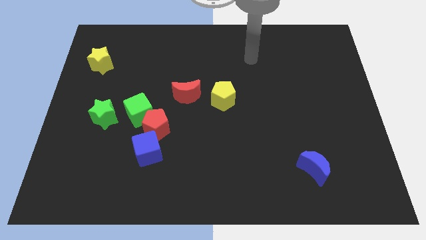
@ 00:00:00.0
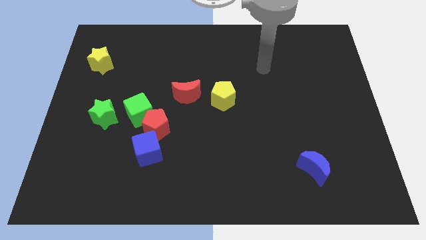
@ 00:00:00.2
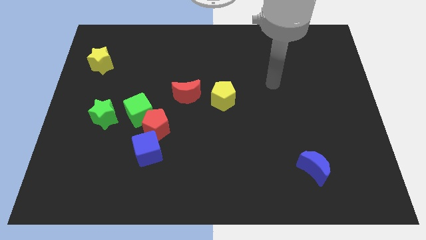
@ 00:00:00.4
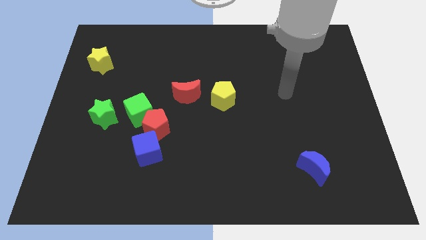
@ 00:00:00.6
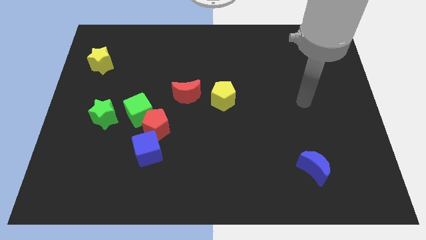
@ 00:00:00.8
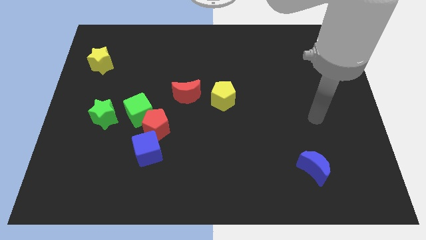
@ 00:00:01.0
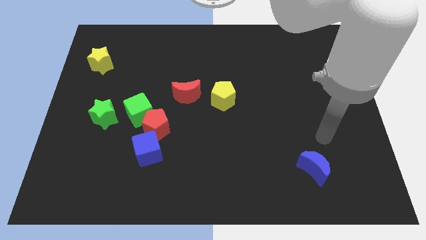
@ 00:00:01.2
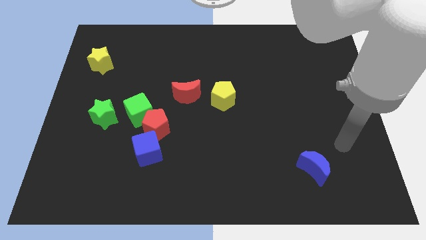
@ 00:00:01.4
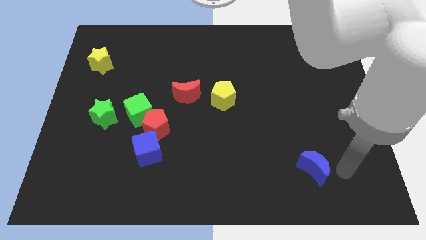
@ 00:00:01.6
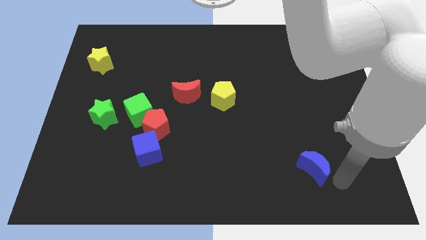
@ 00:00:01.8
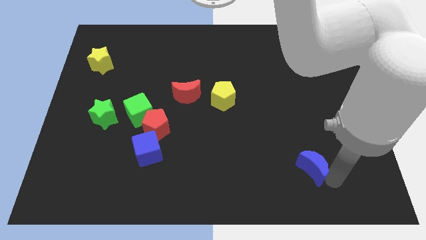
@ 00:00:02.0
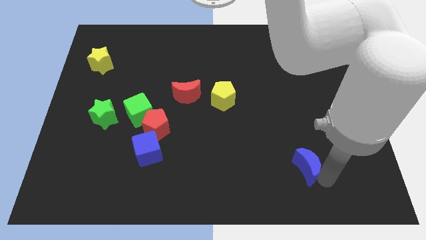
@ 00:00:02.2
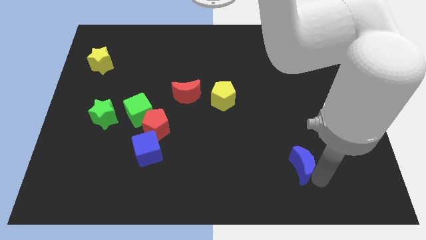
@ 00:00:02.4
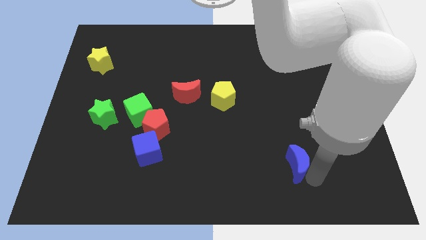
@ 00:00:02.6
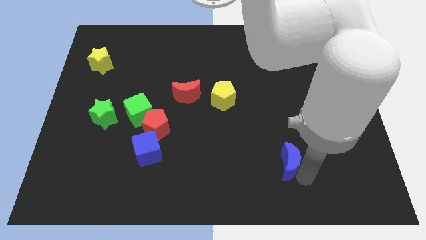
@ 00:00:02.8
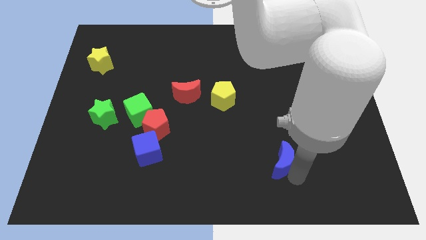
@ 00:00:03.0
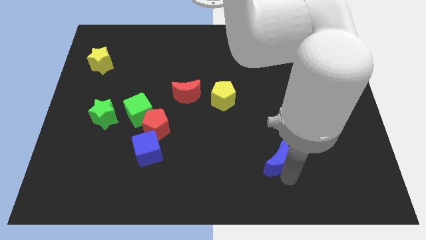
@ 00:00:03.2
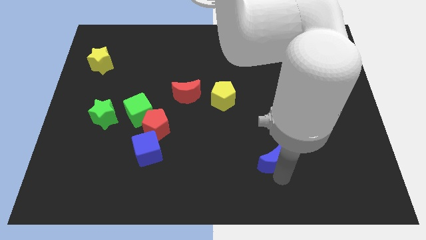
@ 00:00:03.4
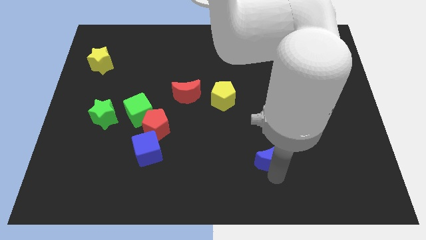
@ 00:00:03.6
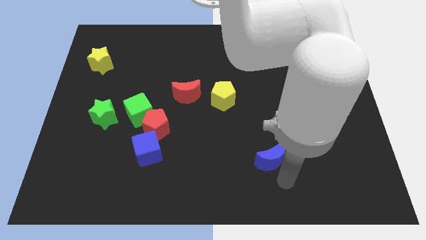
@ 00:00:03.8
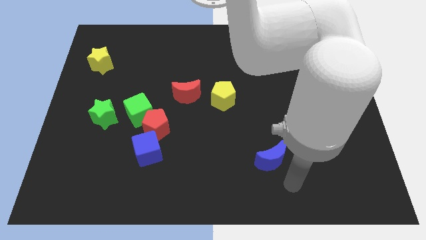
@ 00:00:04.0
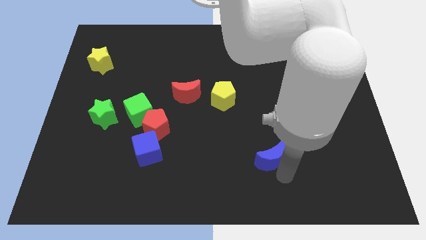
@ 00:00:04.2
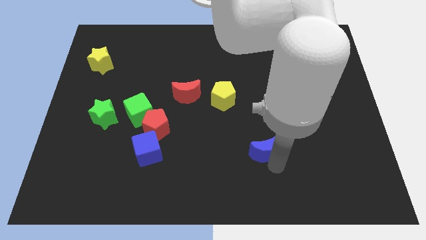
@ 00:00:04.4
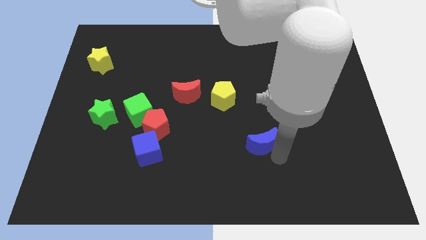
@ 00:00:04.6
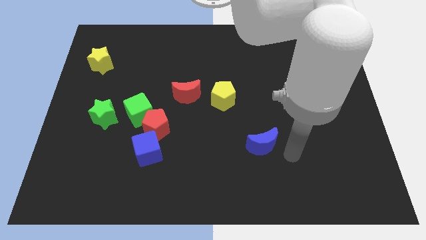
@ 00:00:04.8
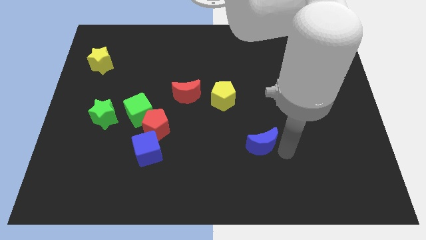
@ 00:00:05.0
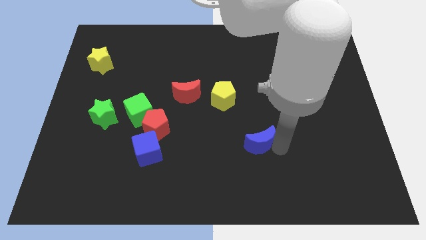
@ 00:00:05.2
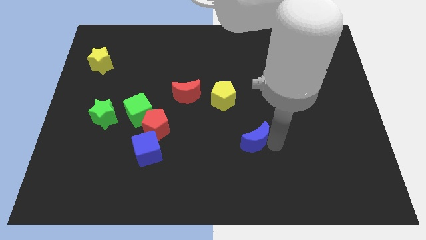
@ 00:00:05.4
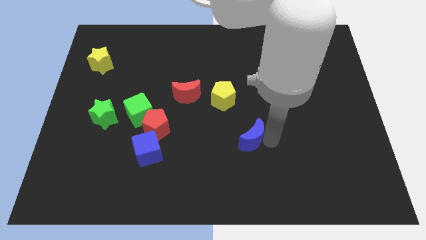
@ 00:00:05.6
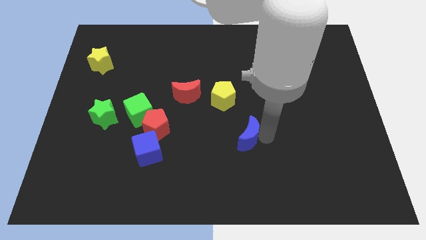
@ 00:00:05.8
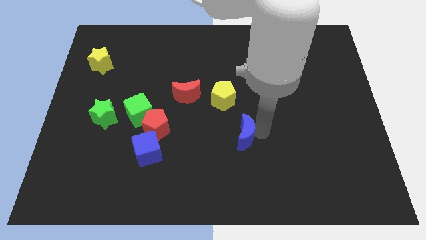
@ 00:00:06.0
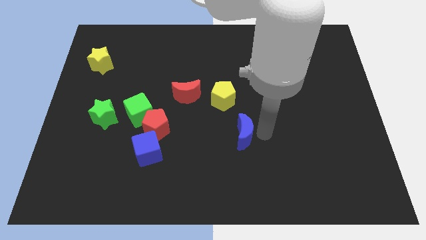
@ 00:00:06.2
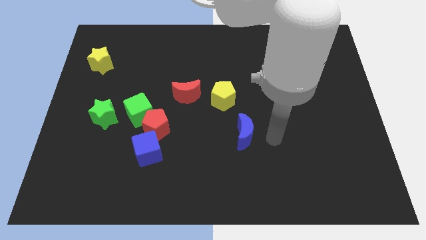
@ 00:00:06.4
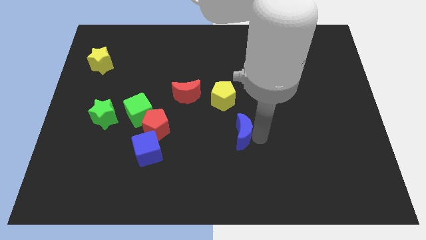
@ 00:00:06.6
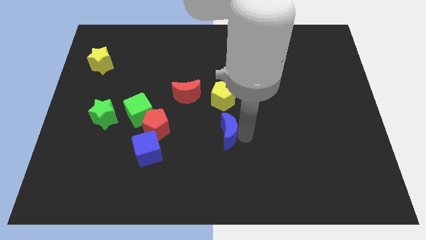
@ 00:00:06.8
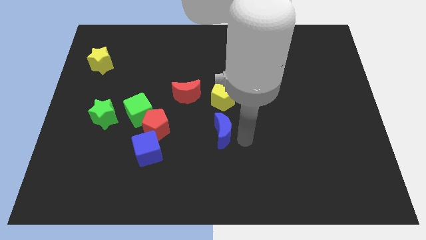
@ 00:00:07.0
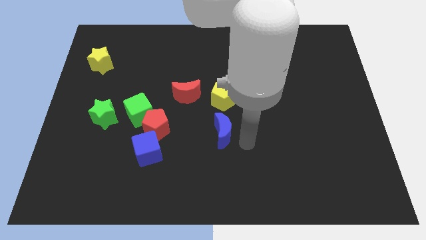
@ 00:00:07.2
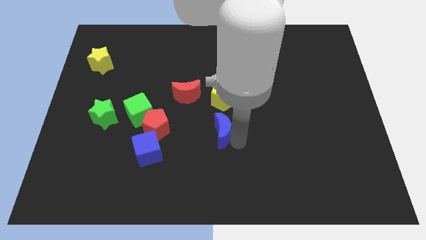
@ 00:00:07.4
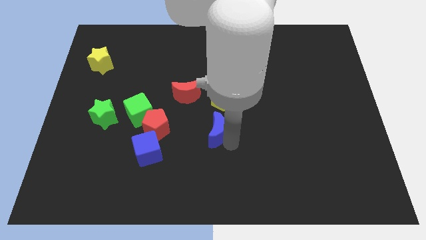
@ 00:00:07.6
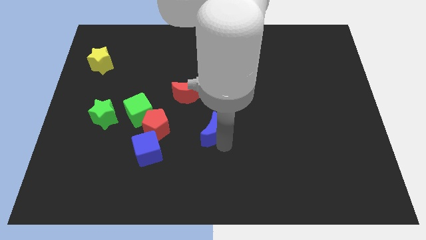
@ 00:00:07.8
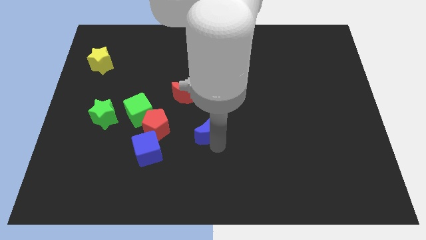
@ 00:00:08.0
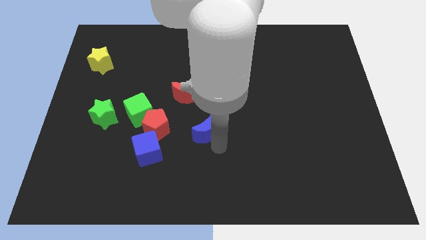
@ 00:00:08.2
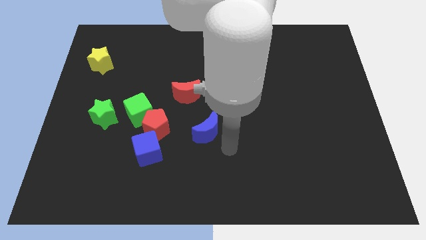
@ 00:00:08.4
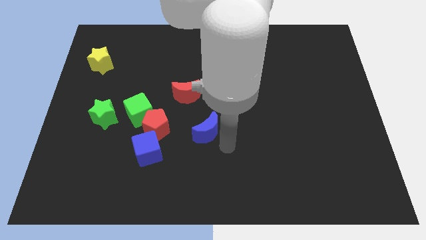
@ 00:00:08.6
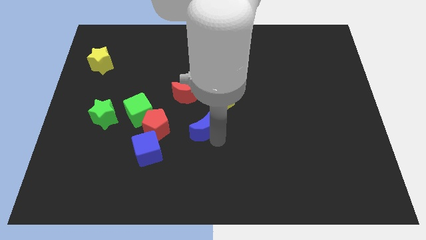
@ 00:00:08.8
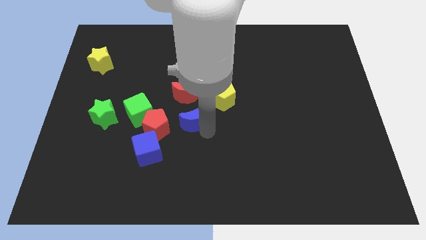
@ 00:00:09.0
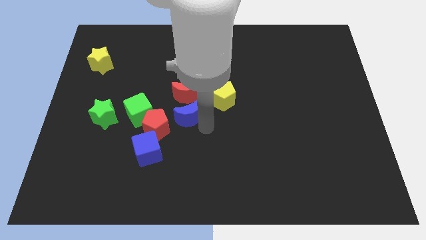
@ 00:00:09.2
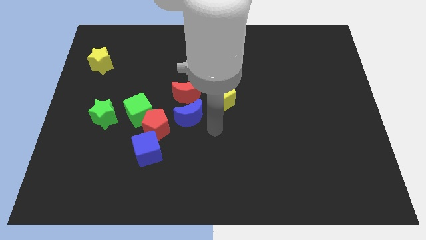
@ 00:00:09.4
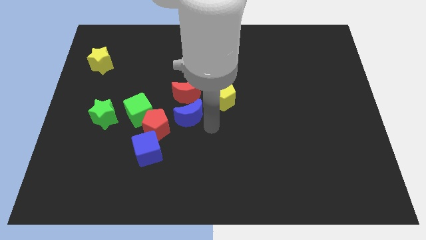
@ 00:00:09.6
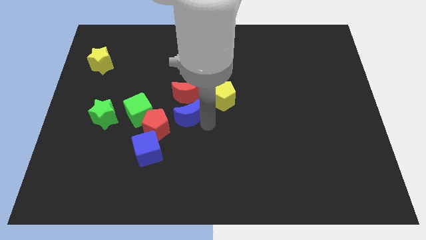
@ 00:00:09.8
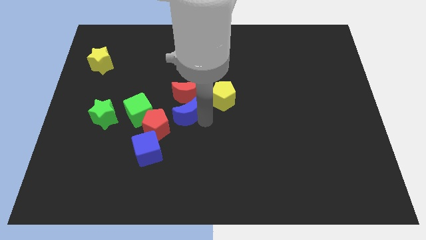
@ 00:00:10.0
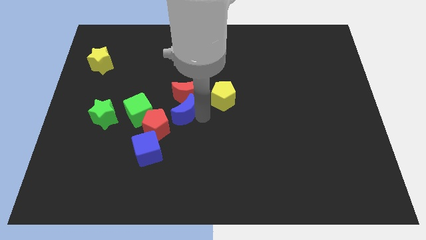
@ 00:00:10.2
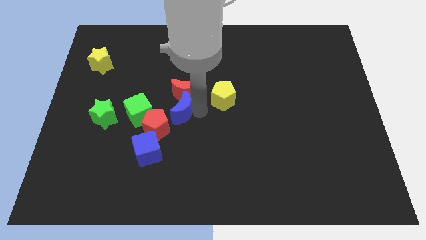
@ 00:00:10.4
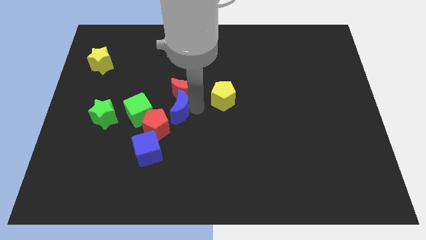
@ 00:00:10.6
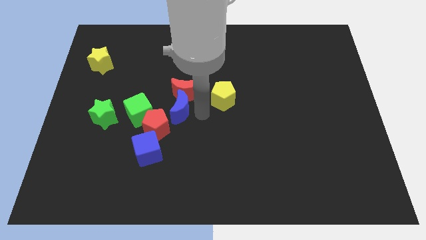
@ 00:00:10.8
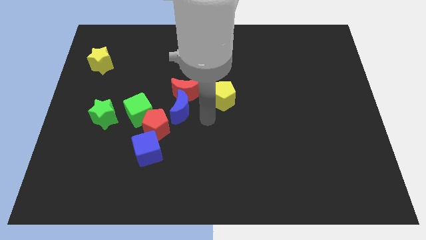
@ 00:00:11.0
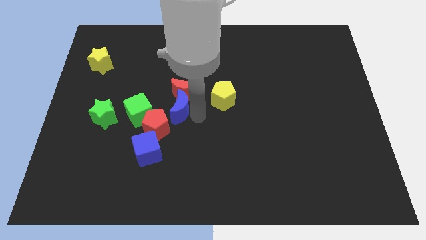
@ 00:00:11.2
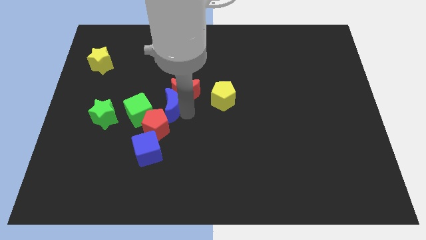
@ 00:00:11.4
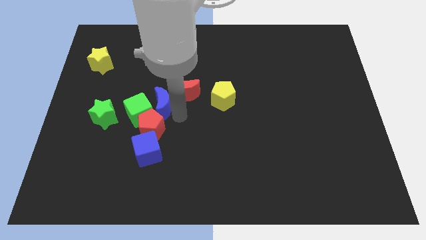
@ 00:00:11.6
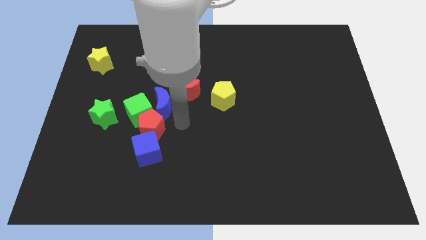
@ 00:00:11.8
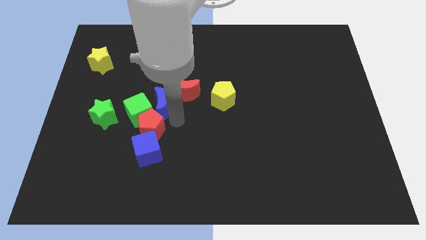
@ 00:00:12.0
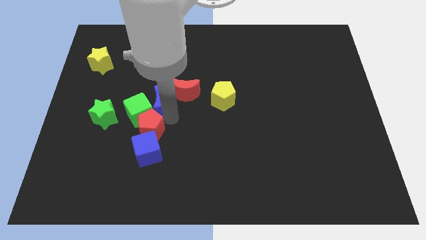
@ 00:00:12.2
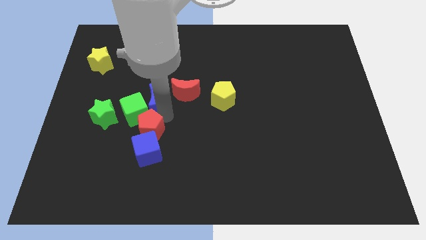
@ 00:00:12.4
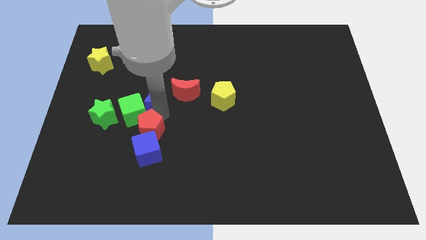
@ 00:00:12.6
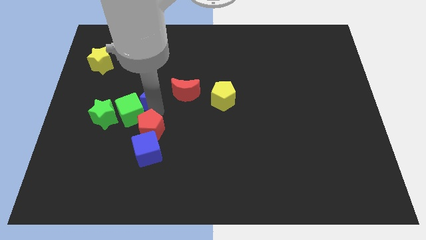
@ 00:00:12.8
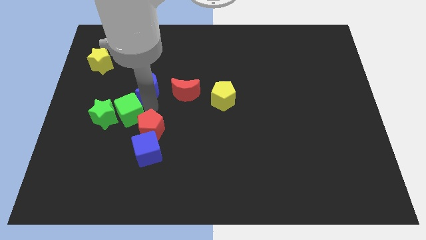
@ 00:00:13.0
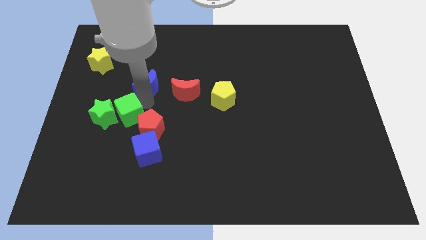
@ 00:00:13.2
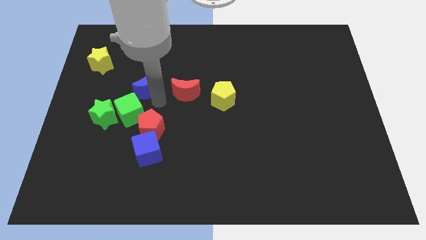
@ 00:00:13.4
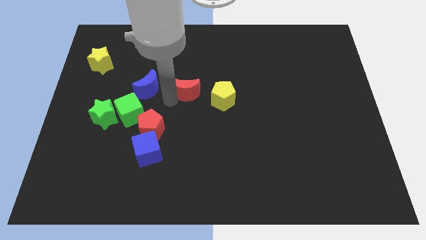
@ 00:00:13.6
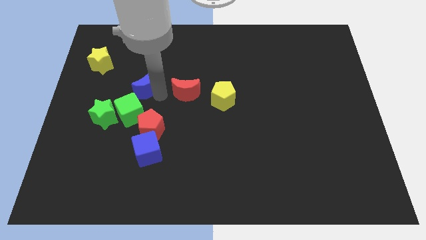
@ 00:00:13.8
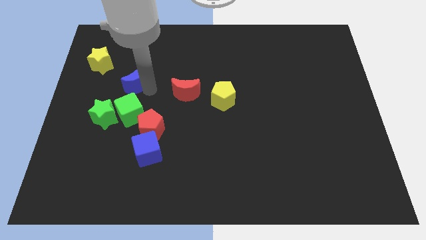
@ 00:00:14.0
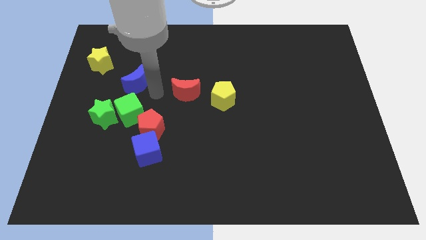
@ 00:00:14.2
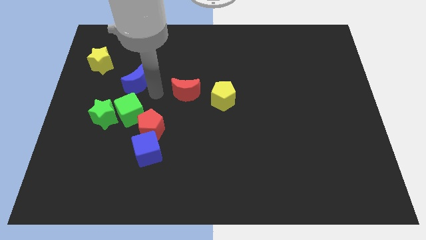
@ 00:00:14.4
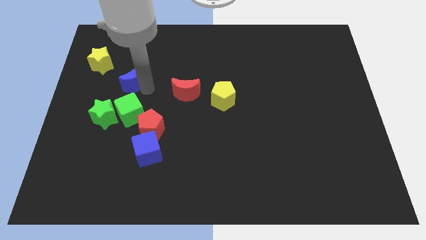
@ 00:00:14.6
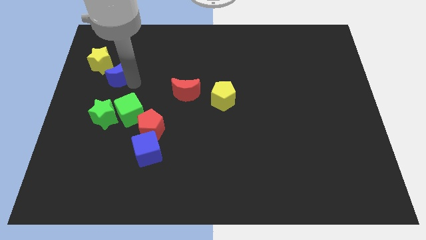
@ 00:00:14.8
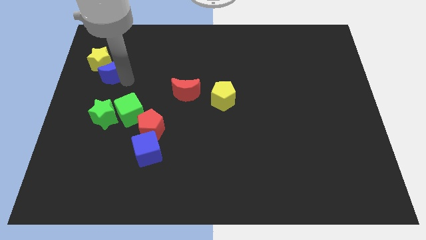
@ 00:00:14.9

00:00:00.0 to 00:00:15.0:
move the blue moon close to the yellow star
